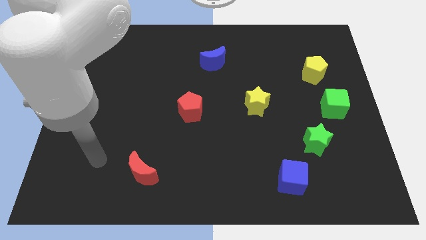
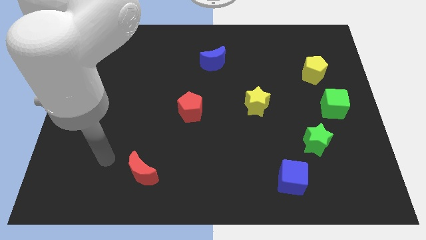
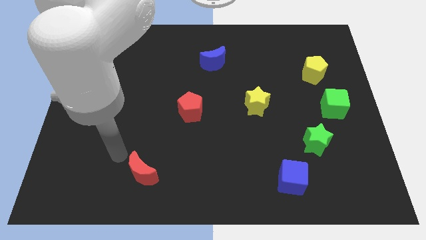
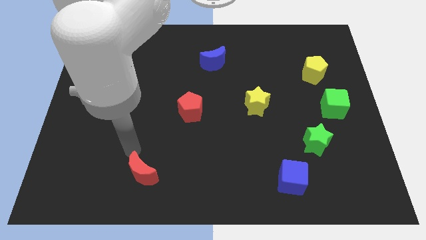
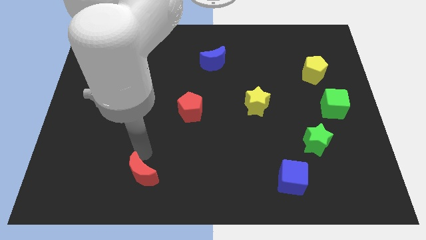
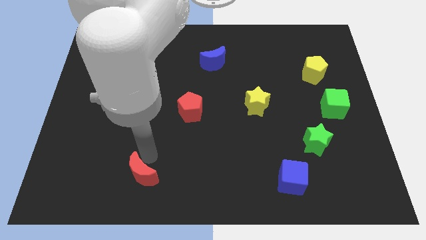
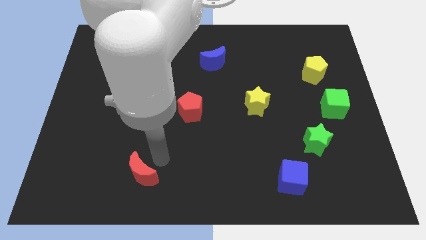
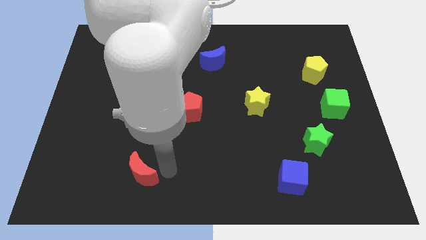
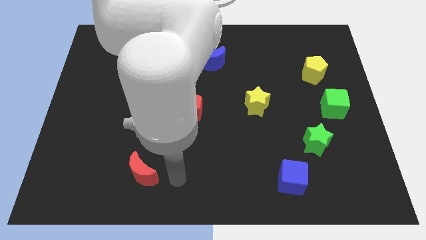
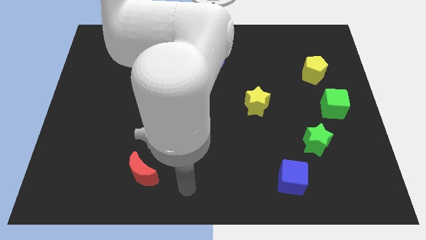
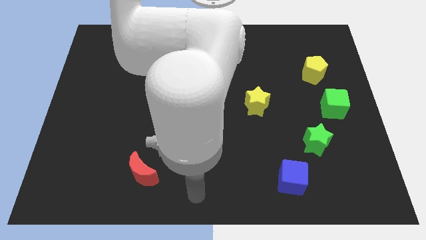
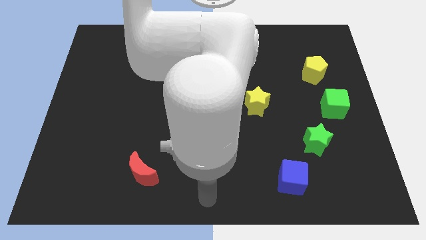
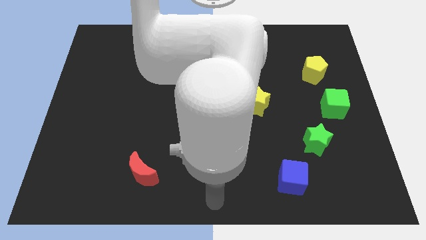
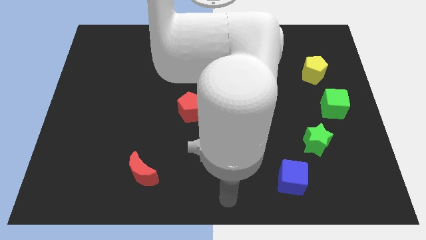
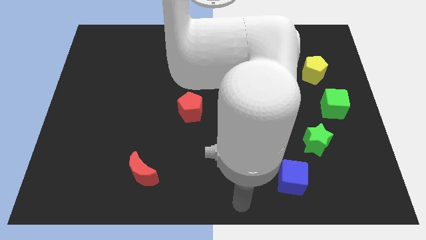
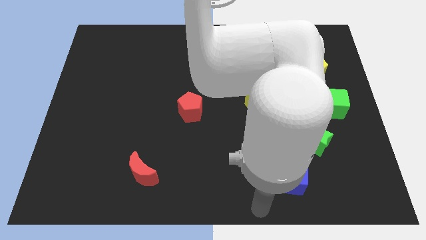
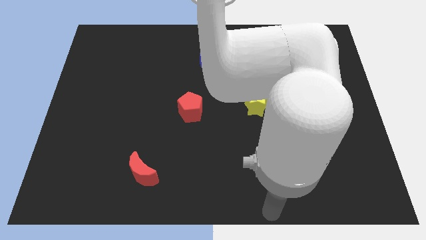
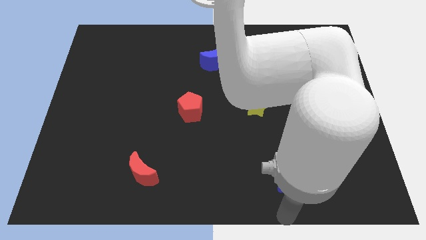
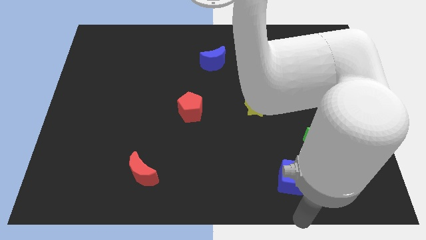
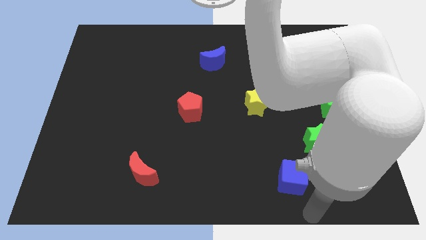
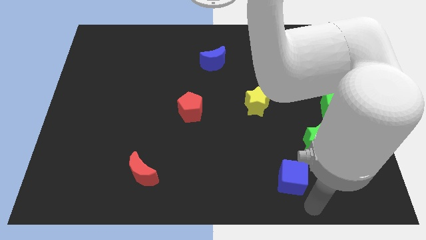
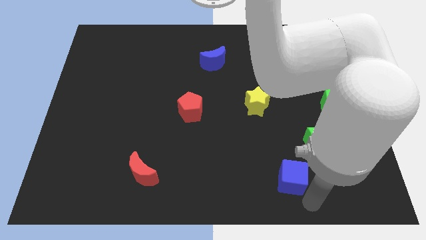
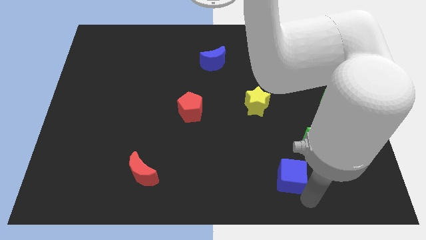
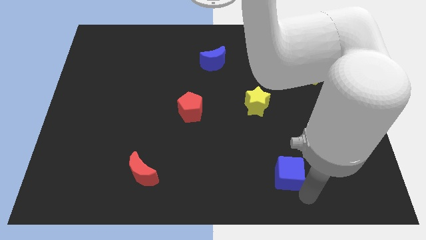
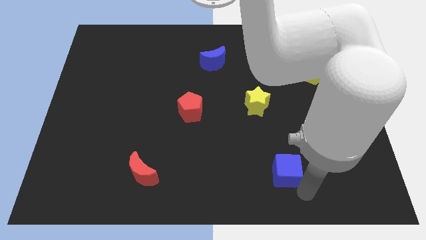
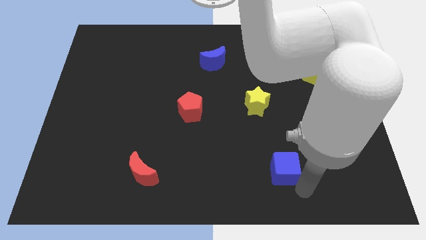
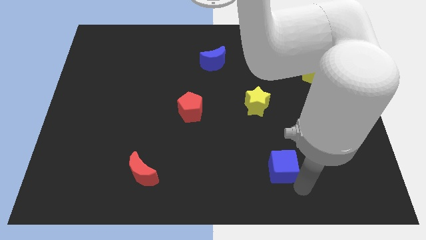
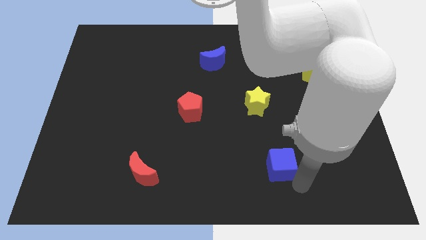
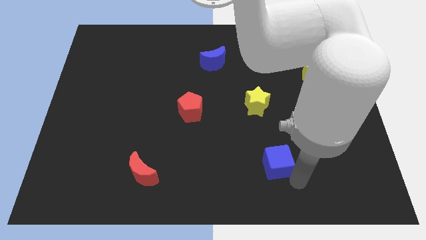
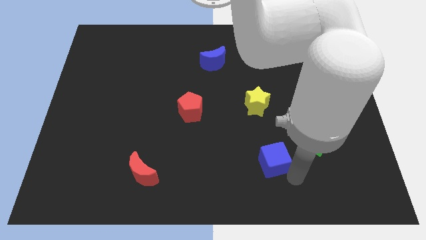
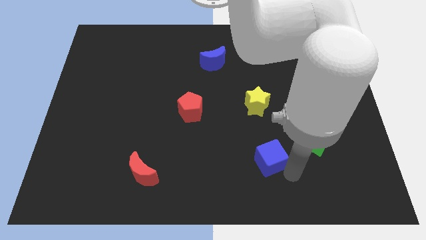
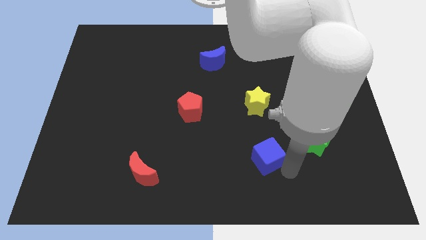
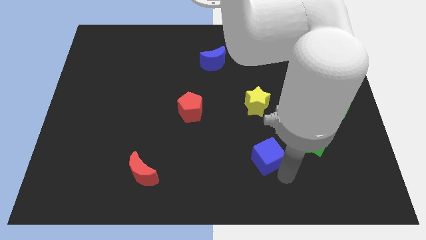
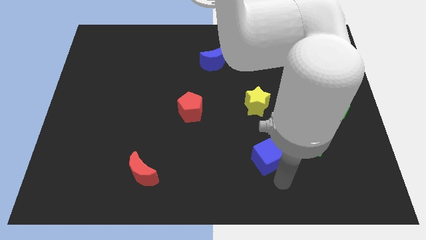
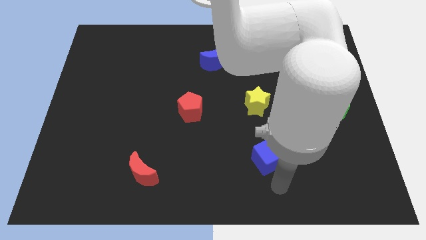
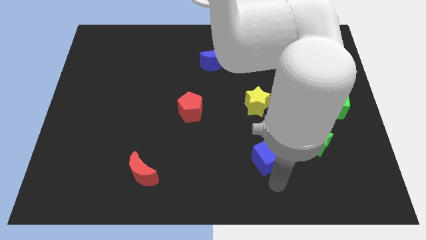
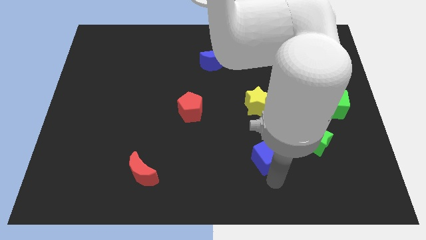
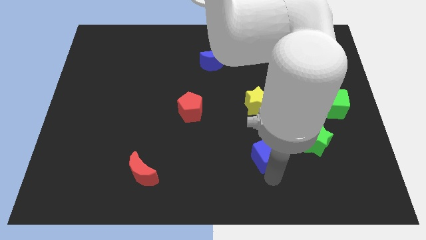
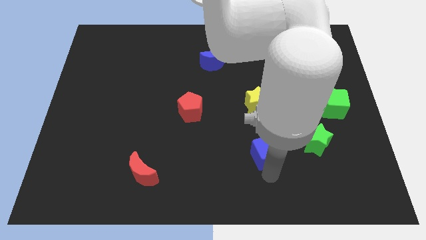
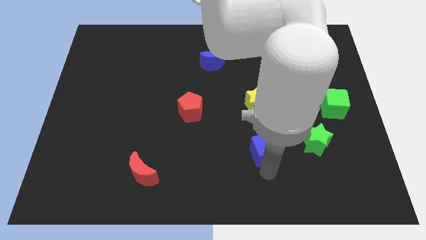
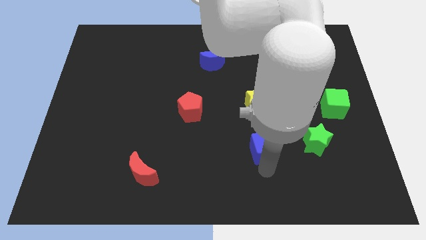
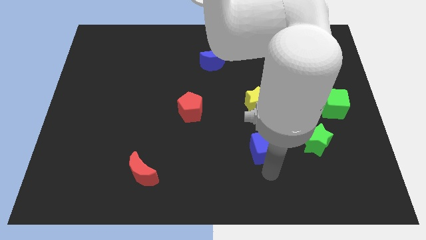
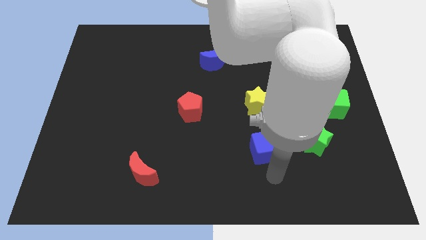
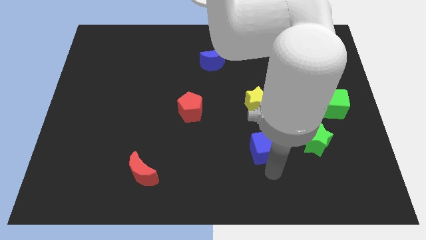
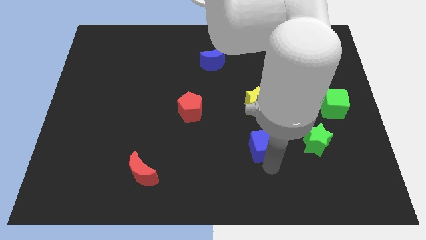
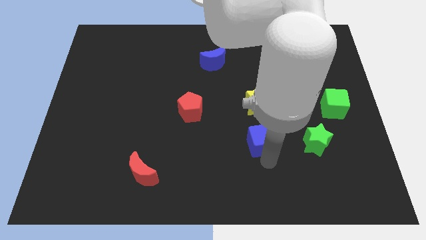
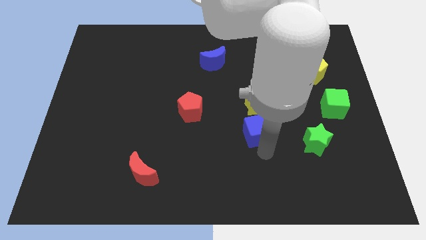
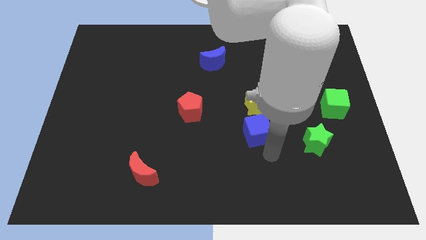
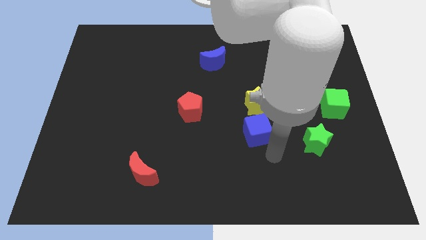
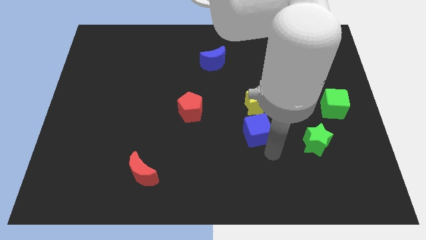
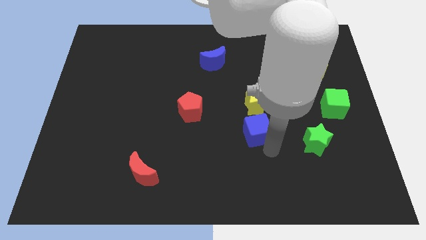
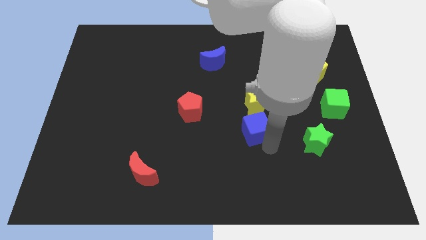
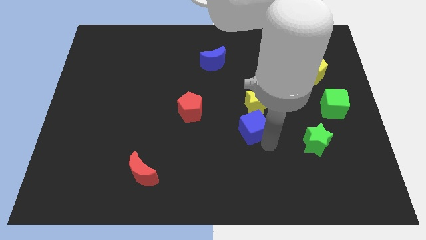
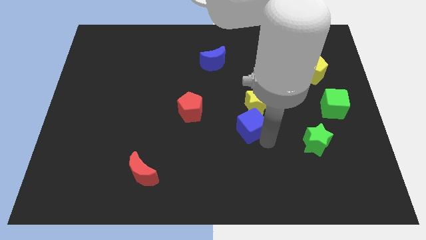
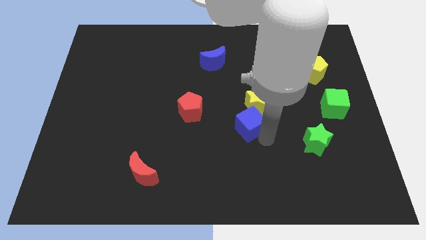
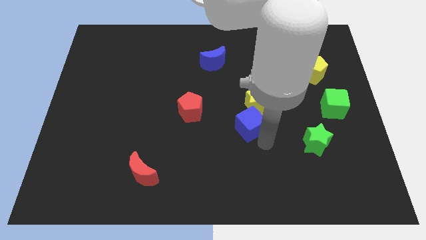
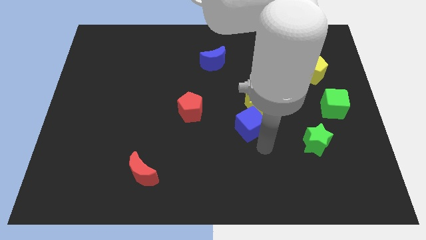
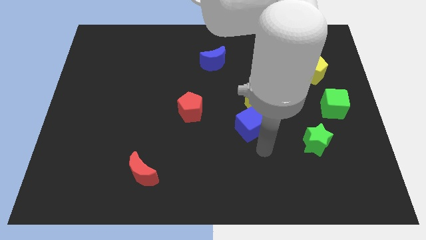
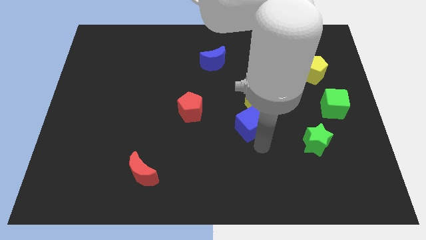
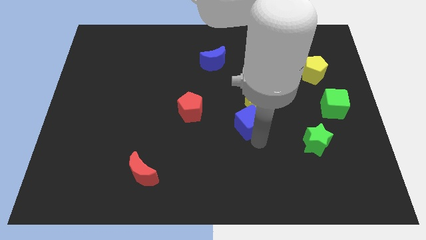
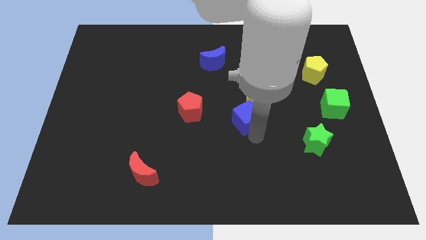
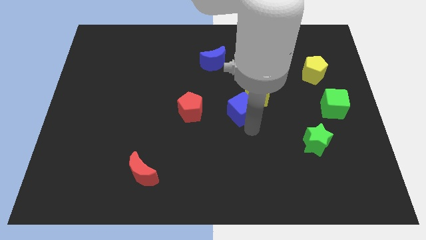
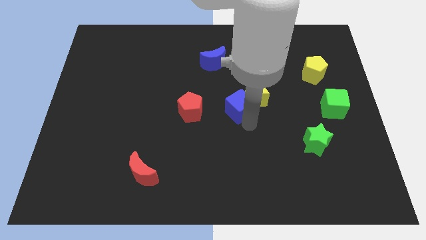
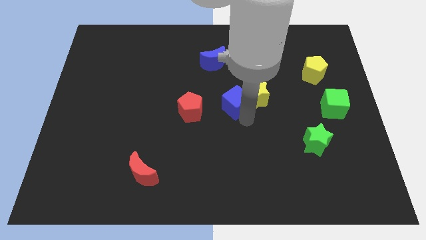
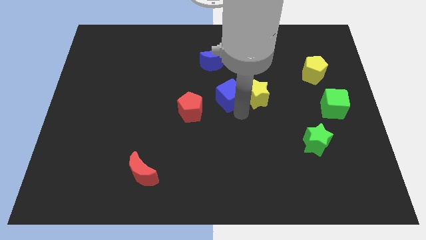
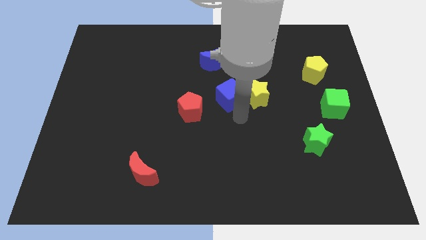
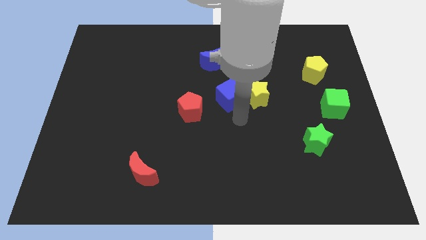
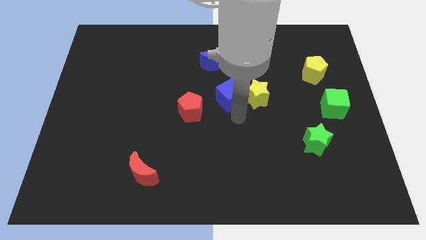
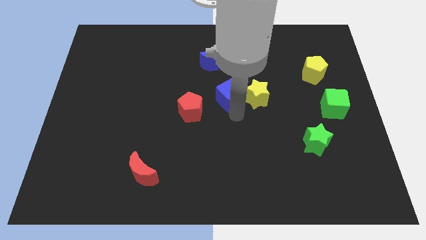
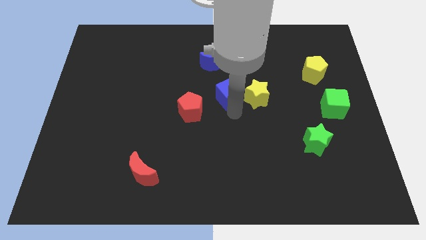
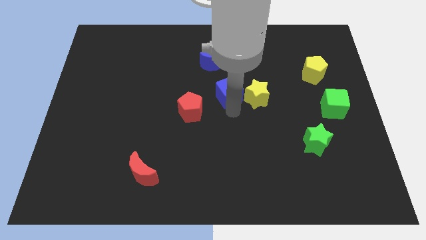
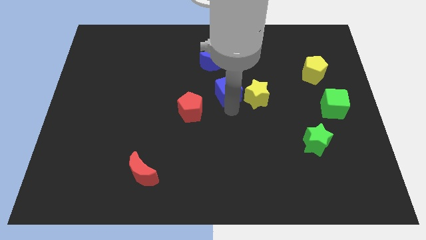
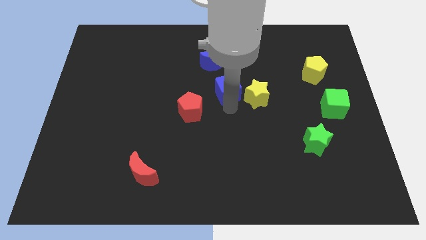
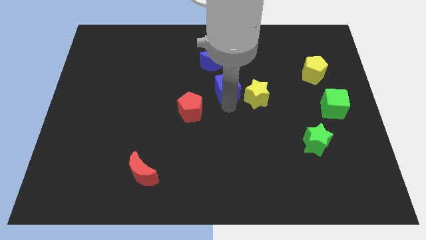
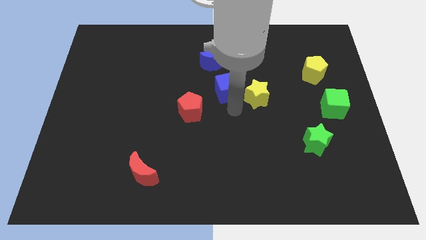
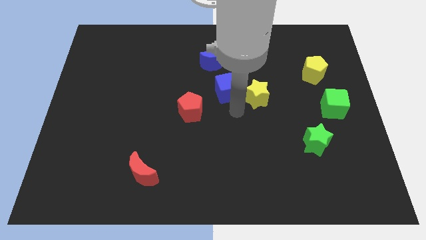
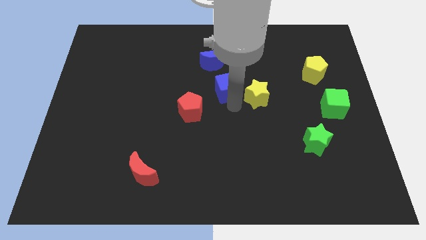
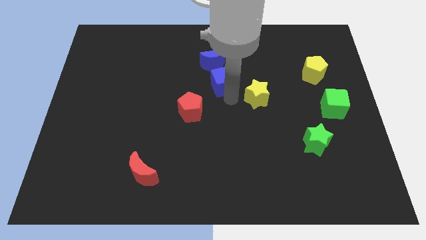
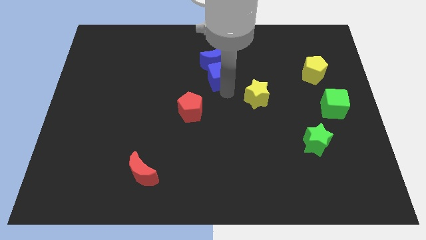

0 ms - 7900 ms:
push the blue cube to the blue moon
